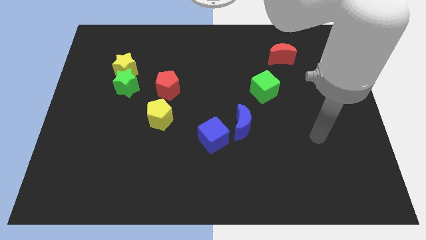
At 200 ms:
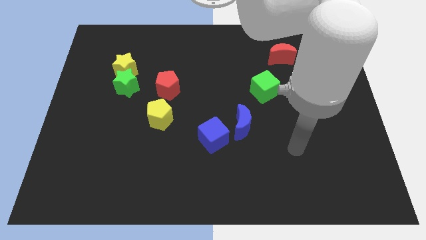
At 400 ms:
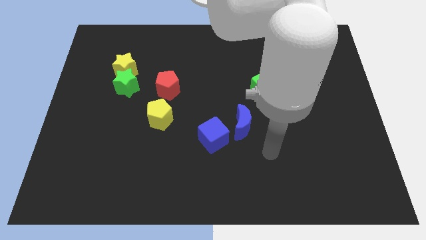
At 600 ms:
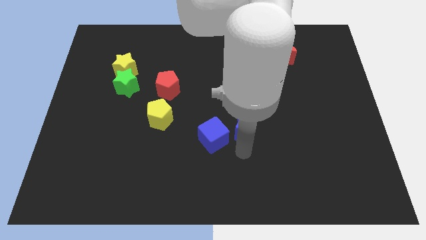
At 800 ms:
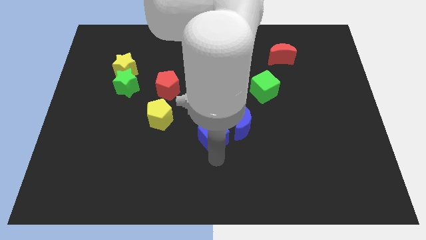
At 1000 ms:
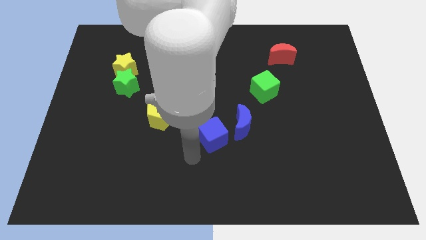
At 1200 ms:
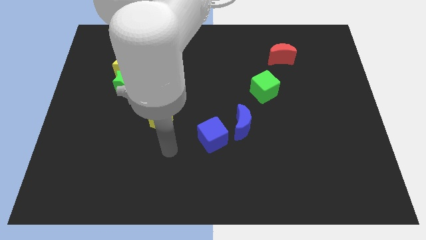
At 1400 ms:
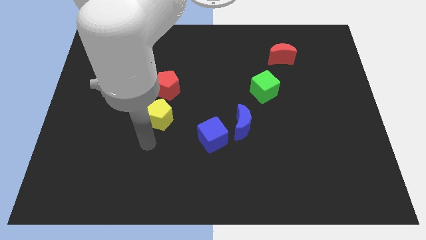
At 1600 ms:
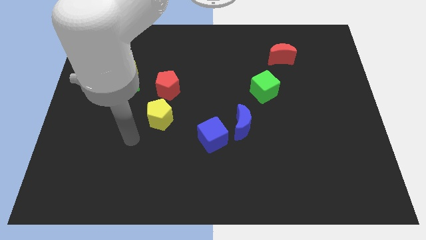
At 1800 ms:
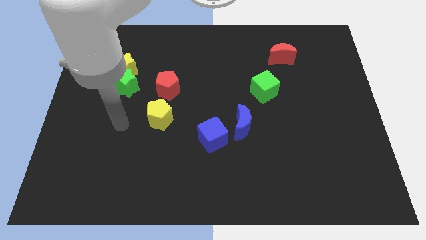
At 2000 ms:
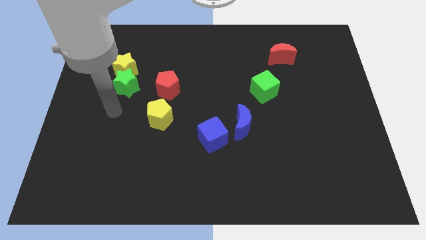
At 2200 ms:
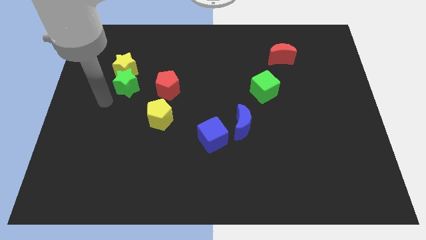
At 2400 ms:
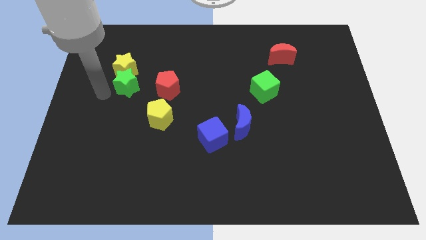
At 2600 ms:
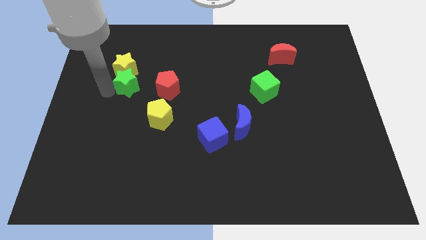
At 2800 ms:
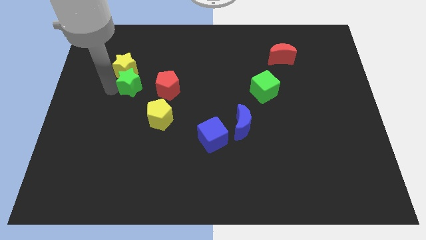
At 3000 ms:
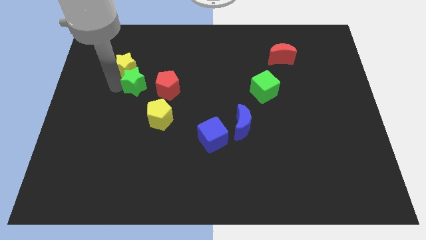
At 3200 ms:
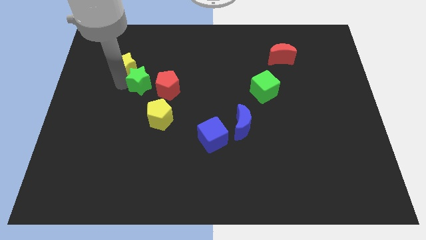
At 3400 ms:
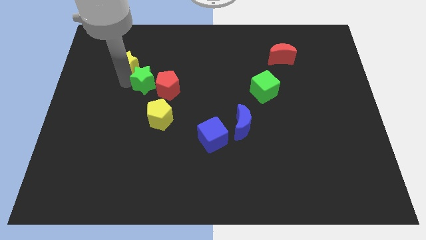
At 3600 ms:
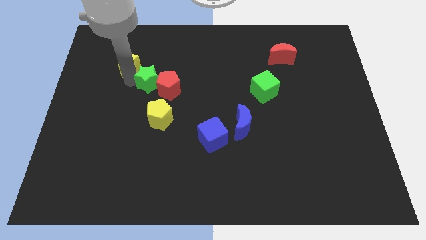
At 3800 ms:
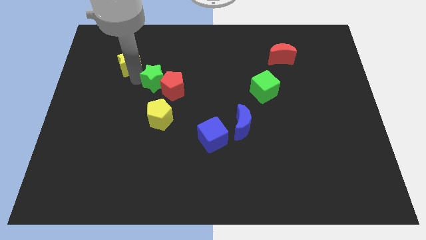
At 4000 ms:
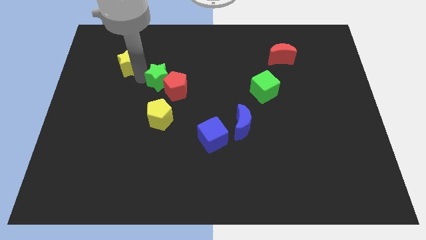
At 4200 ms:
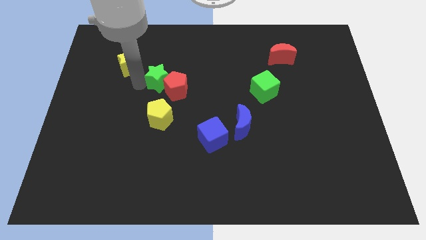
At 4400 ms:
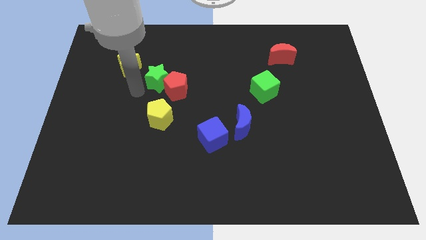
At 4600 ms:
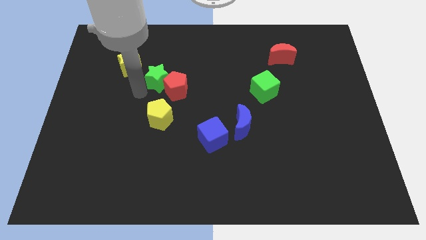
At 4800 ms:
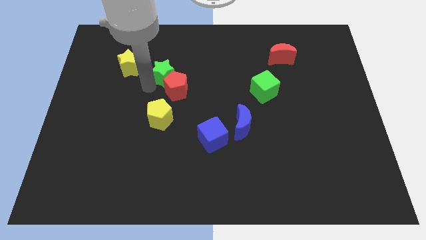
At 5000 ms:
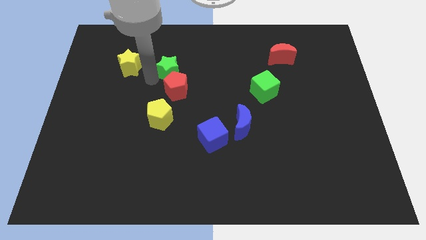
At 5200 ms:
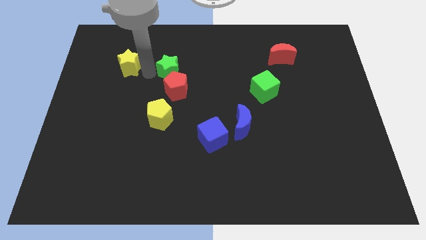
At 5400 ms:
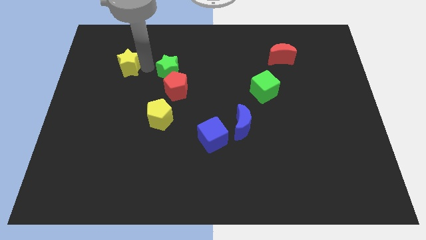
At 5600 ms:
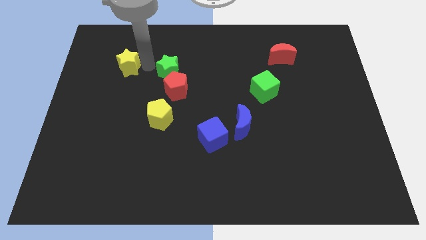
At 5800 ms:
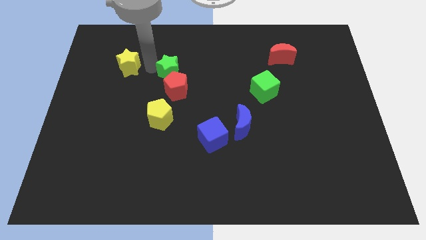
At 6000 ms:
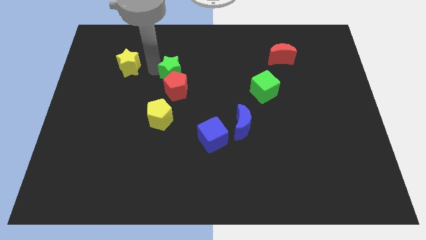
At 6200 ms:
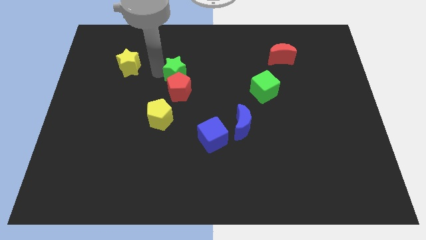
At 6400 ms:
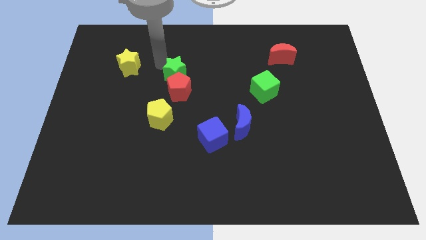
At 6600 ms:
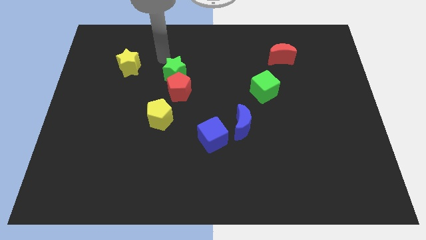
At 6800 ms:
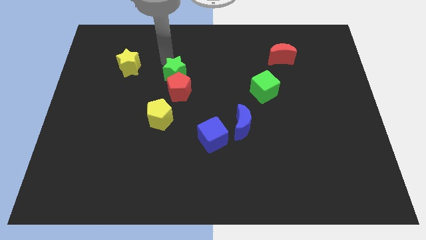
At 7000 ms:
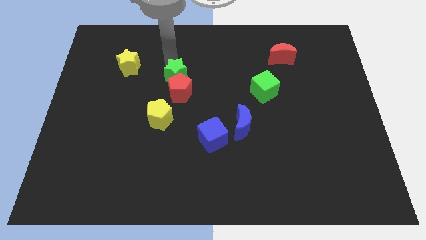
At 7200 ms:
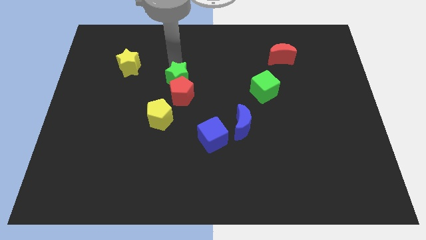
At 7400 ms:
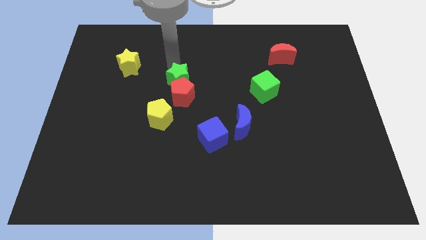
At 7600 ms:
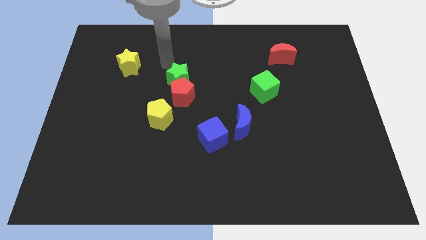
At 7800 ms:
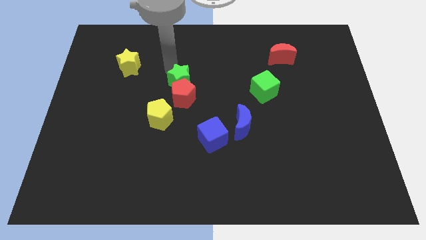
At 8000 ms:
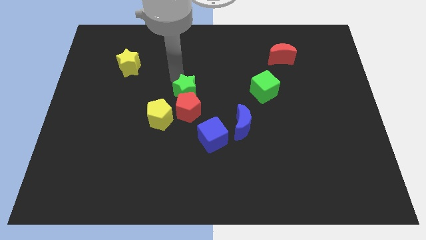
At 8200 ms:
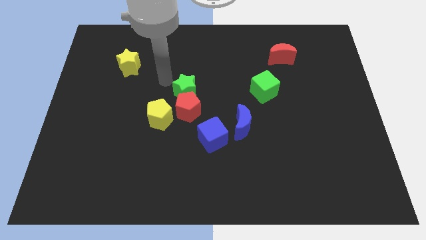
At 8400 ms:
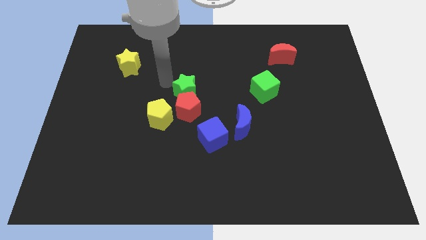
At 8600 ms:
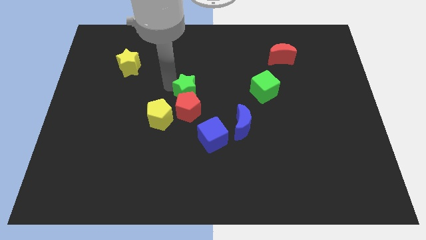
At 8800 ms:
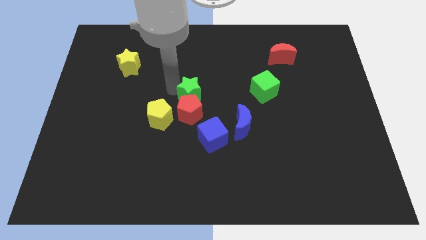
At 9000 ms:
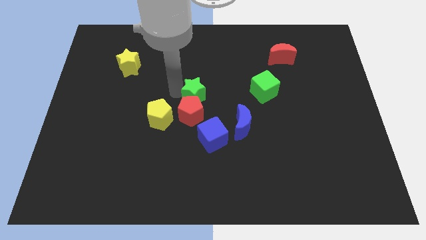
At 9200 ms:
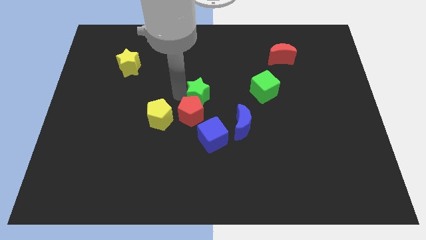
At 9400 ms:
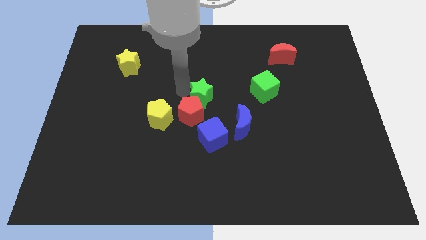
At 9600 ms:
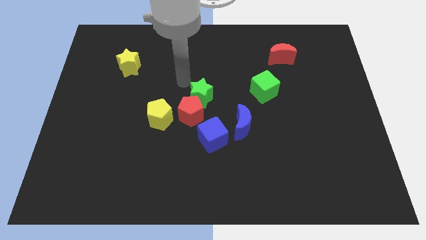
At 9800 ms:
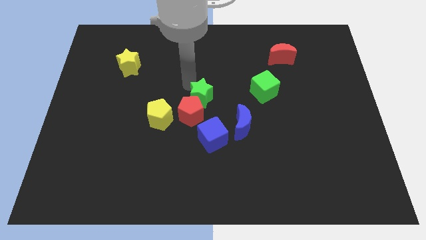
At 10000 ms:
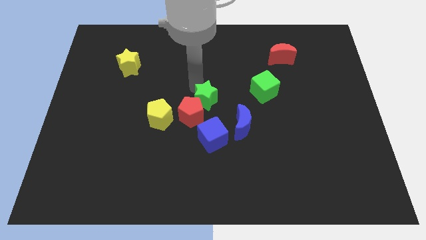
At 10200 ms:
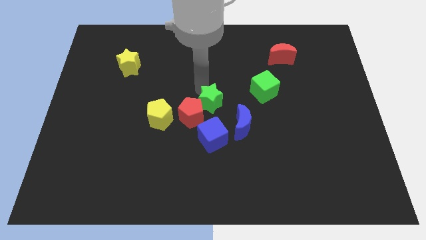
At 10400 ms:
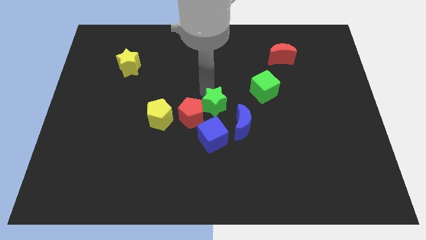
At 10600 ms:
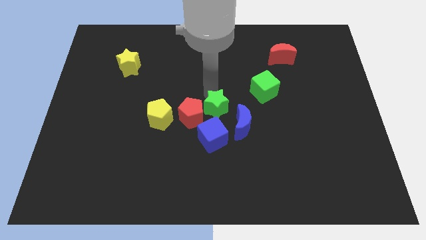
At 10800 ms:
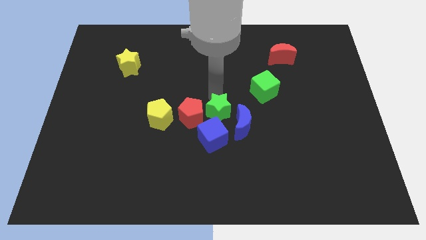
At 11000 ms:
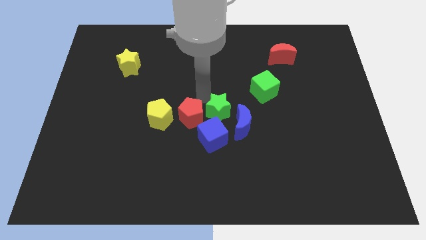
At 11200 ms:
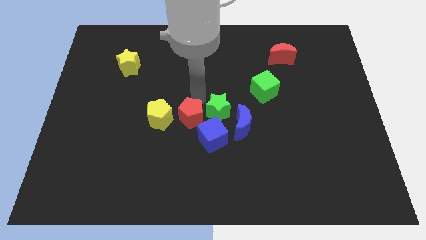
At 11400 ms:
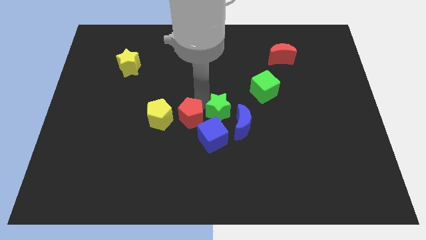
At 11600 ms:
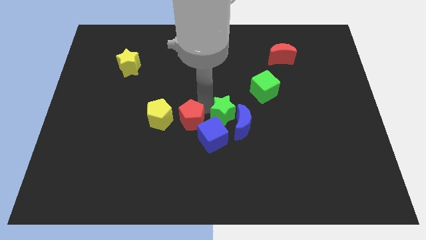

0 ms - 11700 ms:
put the green star towards the blue moon

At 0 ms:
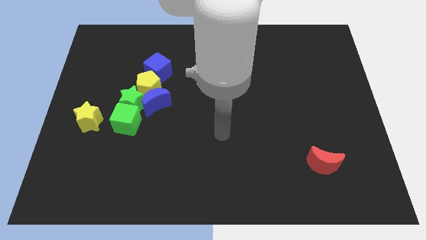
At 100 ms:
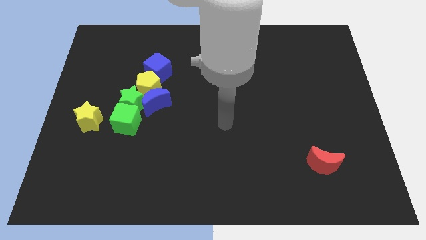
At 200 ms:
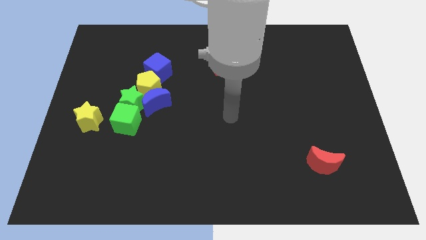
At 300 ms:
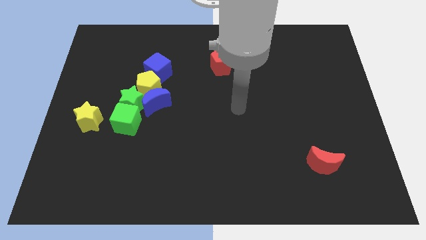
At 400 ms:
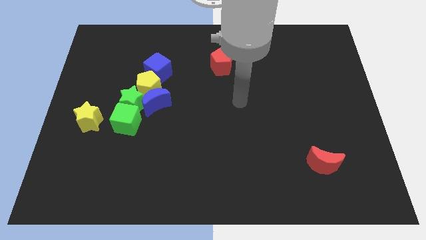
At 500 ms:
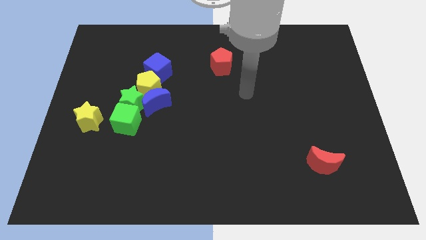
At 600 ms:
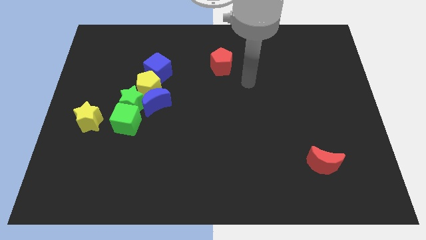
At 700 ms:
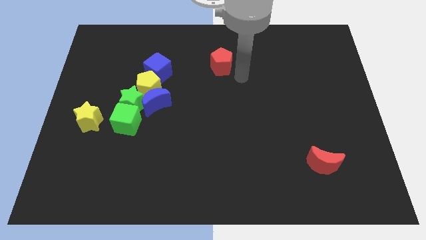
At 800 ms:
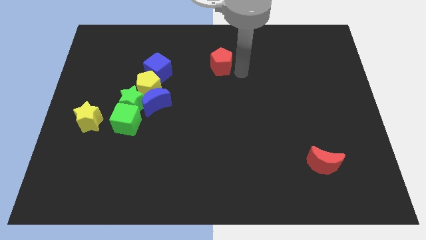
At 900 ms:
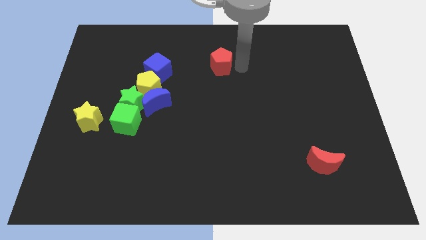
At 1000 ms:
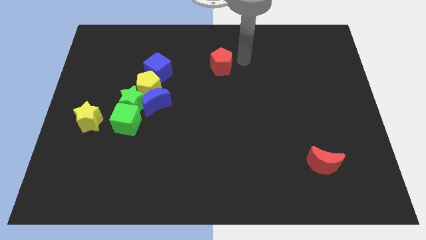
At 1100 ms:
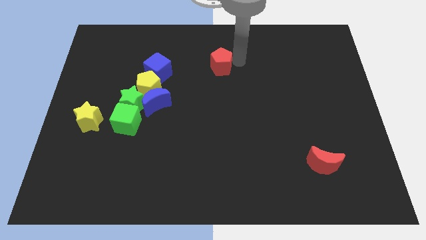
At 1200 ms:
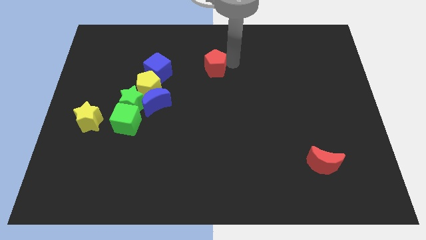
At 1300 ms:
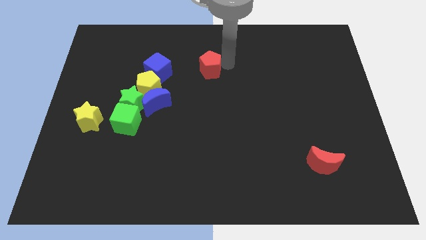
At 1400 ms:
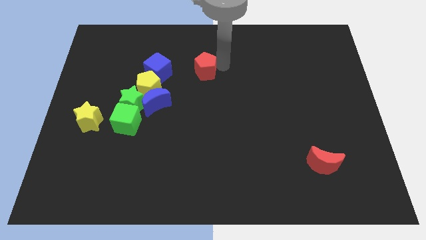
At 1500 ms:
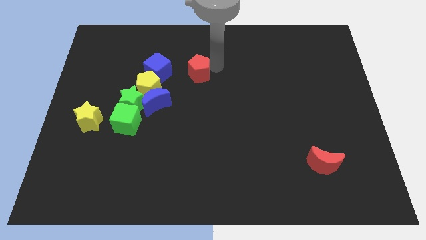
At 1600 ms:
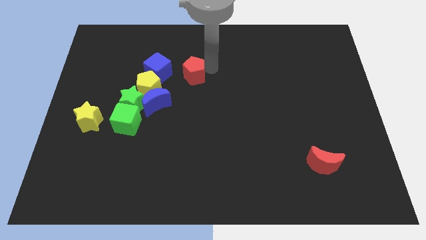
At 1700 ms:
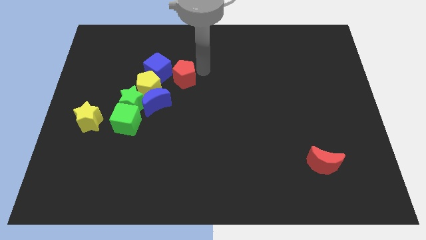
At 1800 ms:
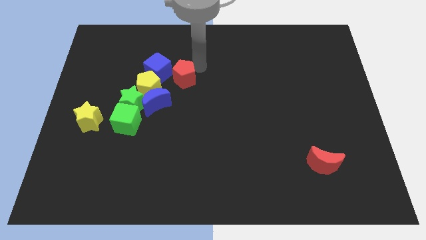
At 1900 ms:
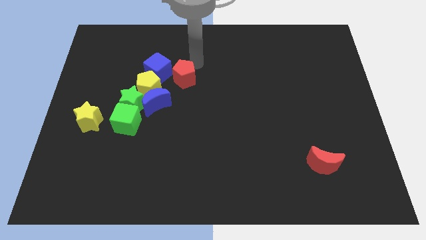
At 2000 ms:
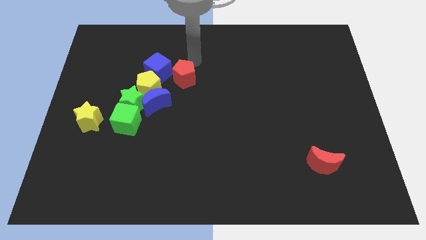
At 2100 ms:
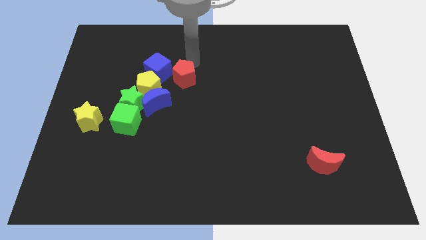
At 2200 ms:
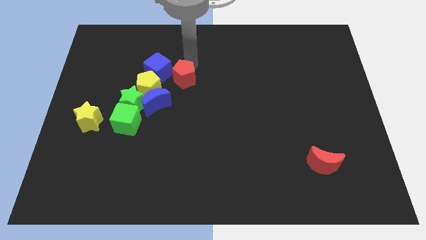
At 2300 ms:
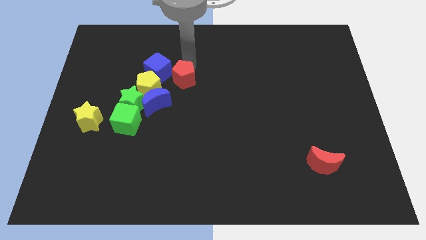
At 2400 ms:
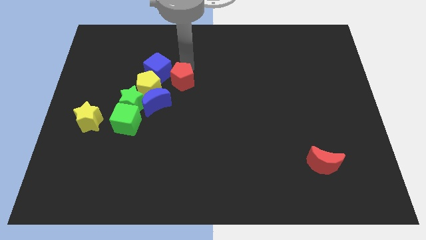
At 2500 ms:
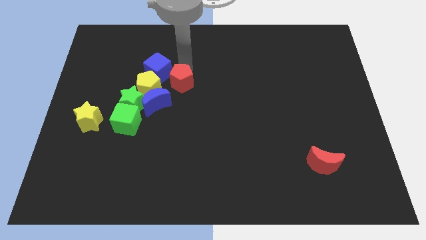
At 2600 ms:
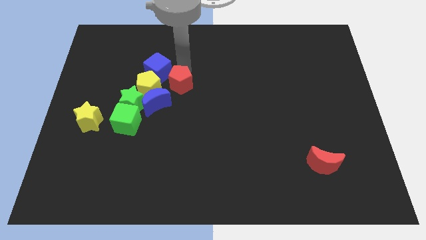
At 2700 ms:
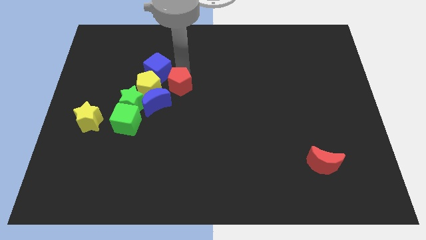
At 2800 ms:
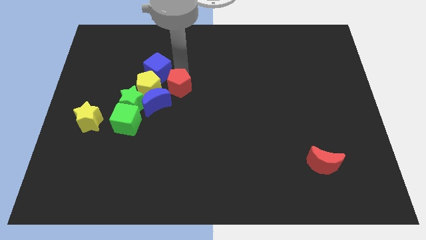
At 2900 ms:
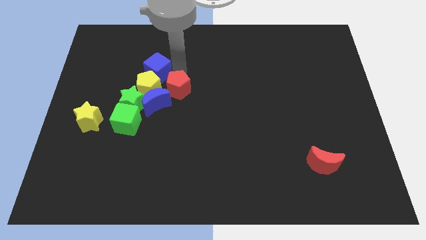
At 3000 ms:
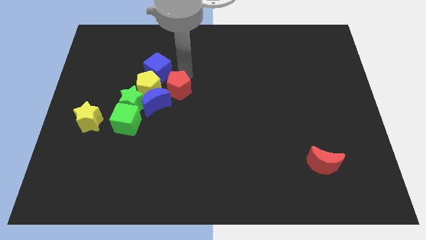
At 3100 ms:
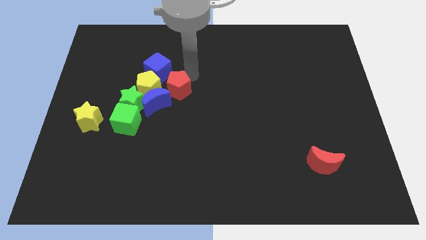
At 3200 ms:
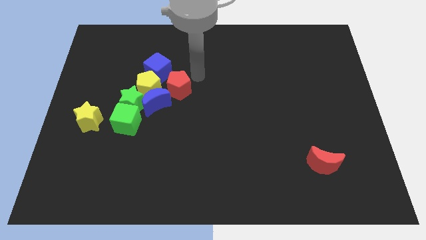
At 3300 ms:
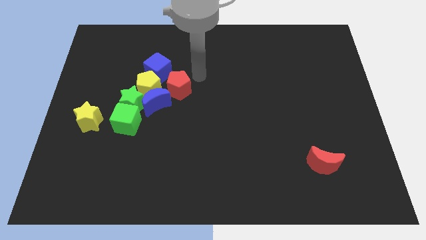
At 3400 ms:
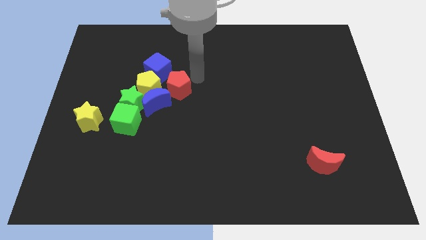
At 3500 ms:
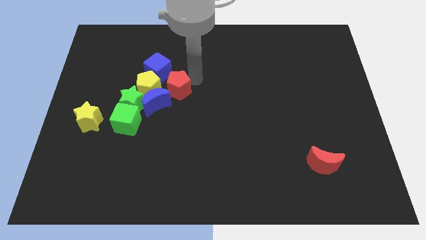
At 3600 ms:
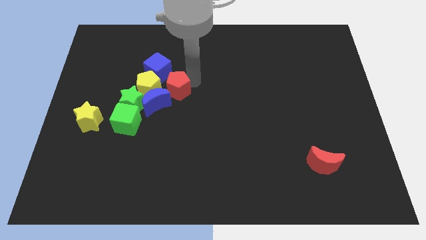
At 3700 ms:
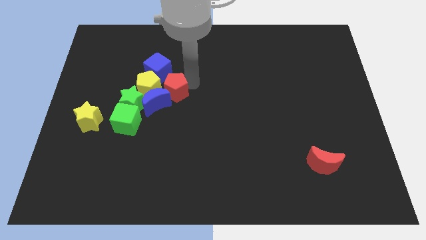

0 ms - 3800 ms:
put the red pentagon next to the blue moon
